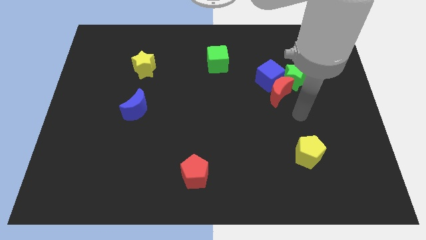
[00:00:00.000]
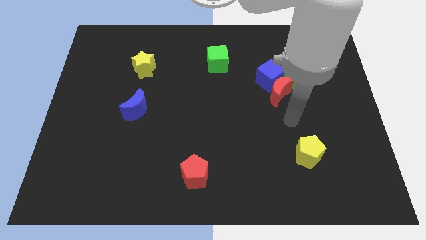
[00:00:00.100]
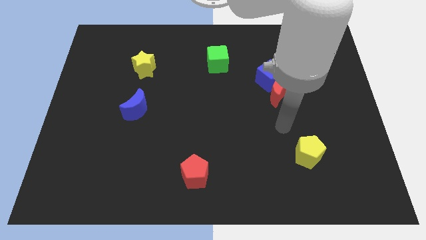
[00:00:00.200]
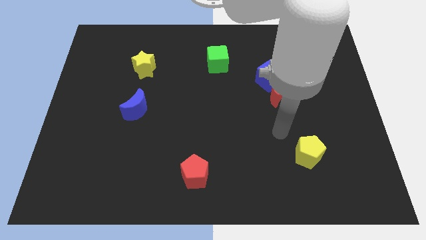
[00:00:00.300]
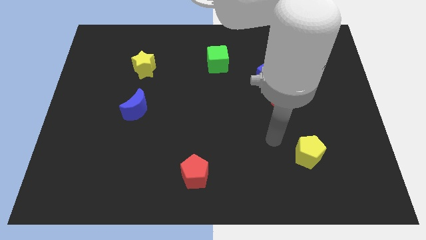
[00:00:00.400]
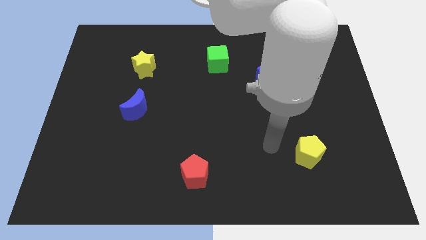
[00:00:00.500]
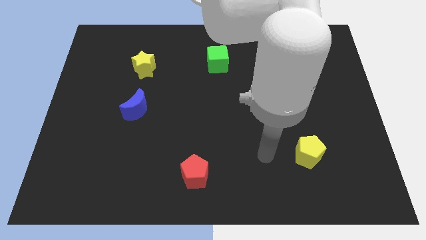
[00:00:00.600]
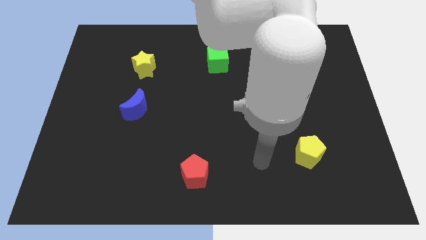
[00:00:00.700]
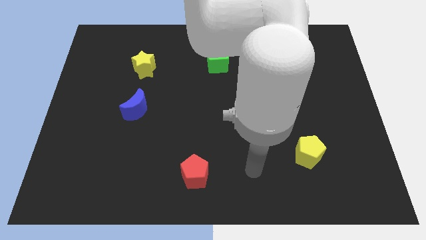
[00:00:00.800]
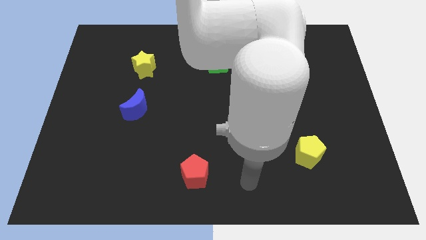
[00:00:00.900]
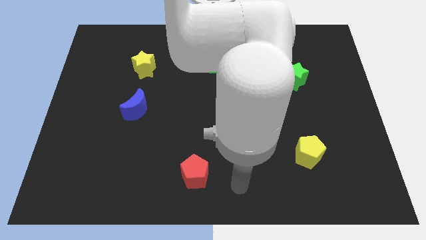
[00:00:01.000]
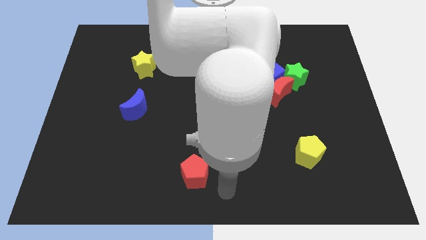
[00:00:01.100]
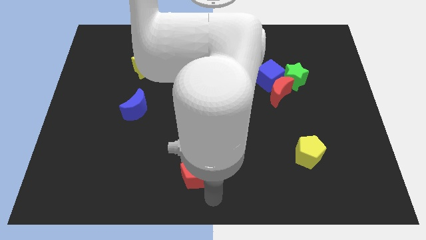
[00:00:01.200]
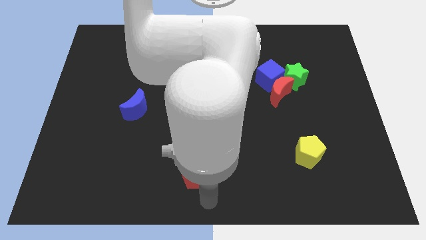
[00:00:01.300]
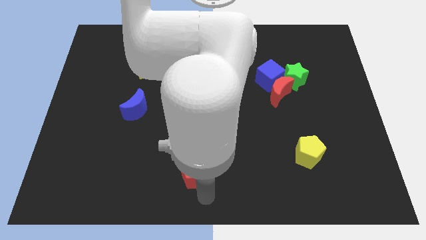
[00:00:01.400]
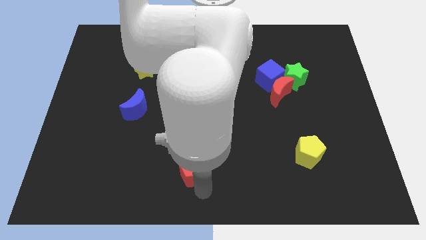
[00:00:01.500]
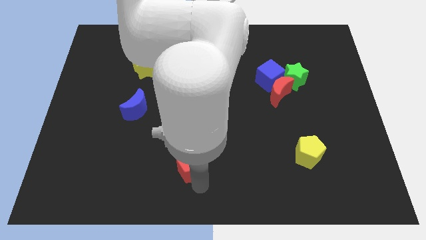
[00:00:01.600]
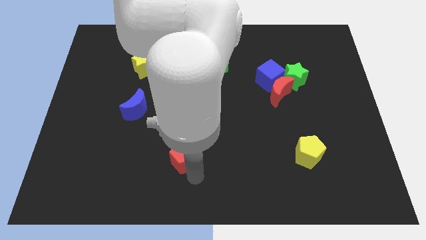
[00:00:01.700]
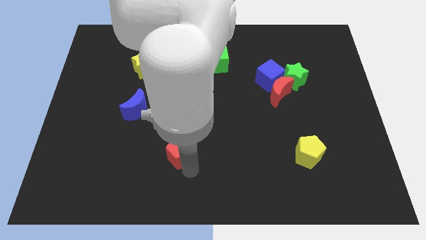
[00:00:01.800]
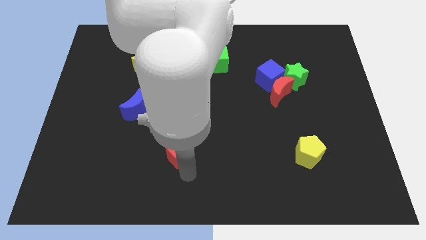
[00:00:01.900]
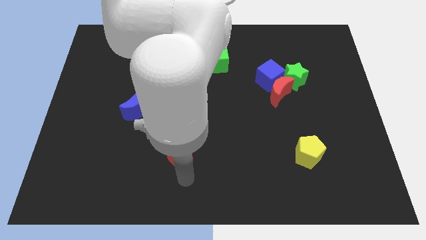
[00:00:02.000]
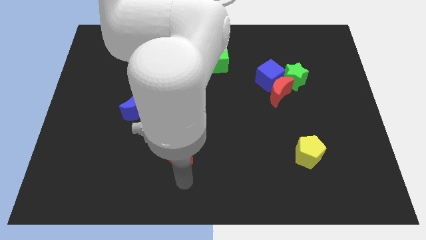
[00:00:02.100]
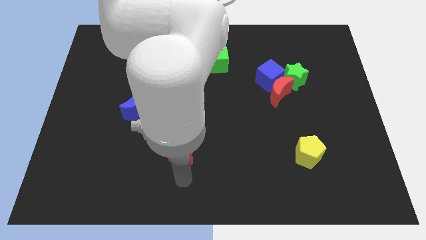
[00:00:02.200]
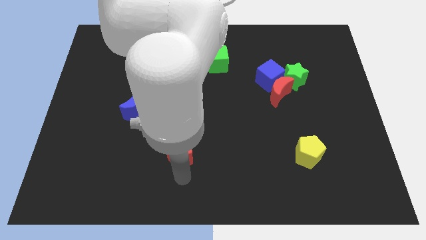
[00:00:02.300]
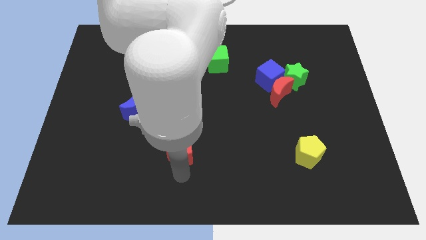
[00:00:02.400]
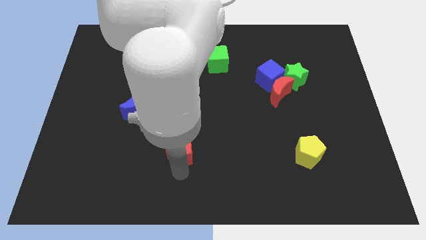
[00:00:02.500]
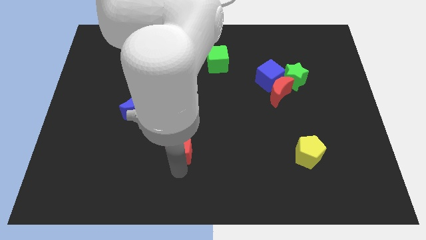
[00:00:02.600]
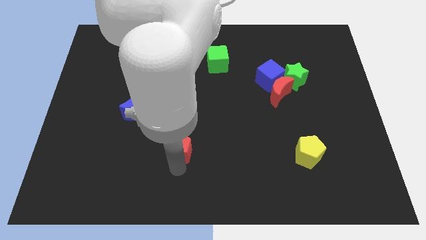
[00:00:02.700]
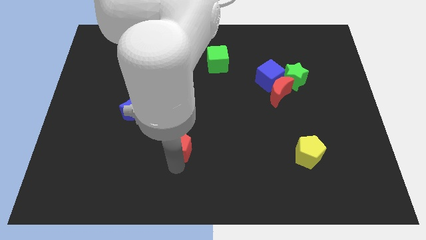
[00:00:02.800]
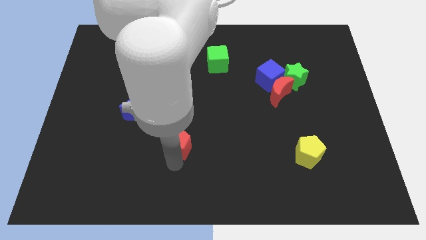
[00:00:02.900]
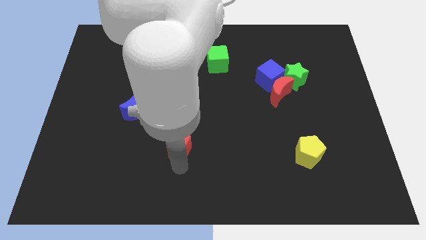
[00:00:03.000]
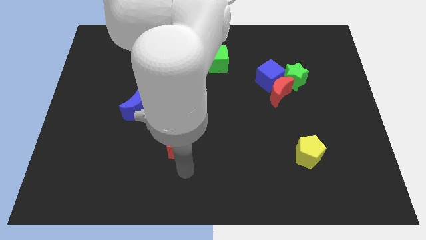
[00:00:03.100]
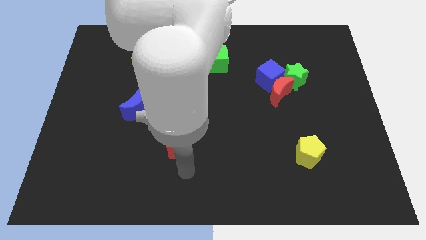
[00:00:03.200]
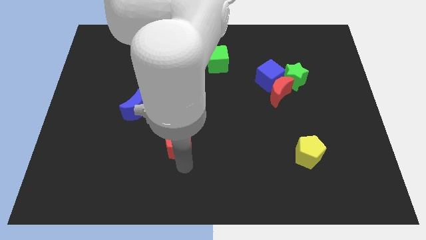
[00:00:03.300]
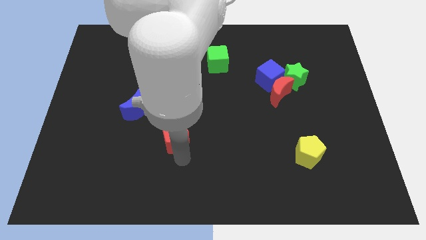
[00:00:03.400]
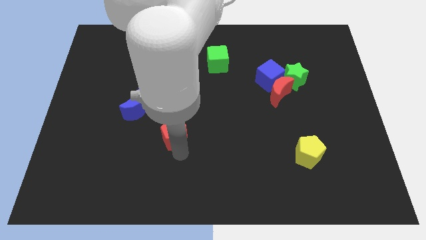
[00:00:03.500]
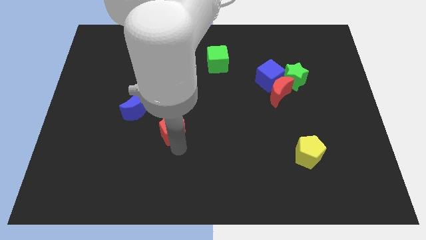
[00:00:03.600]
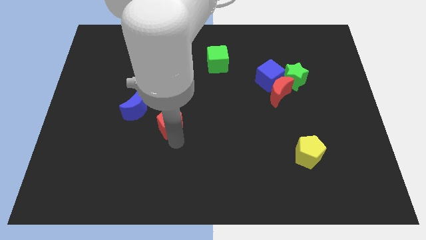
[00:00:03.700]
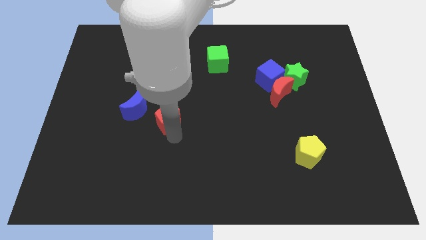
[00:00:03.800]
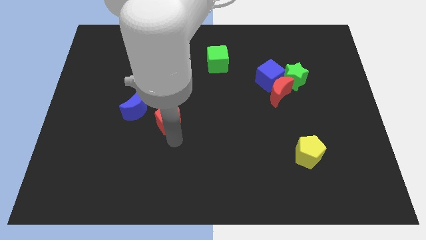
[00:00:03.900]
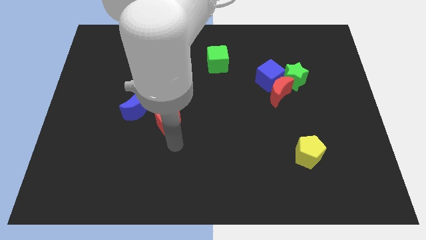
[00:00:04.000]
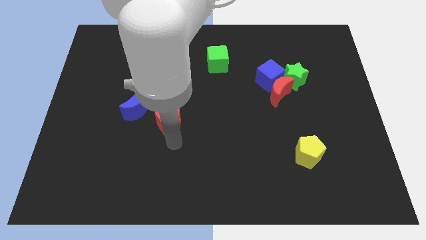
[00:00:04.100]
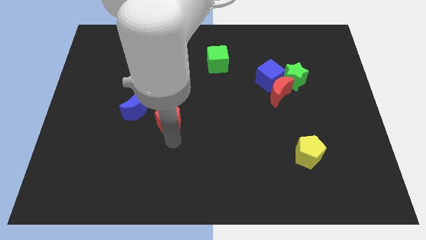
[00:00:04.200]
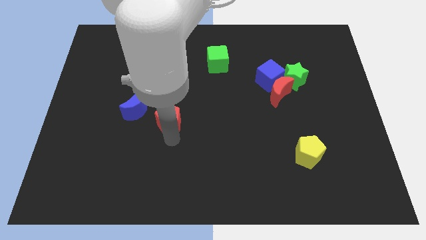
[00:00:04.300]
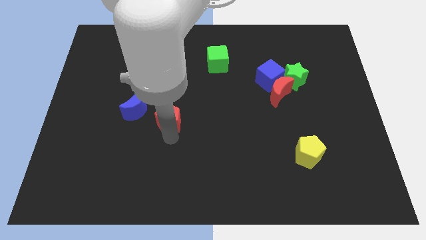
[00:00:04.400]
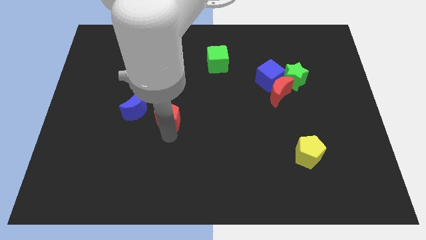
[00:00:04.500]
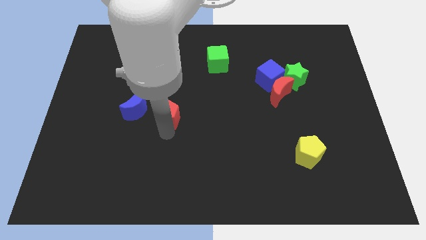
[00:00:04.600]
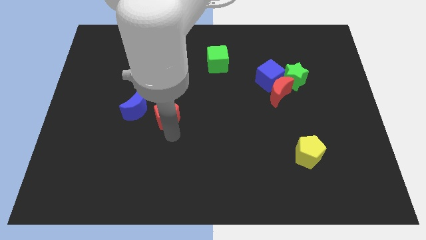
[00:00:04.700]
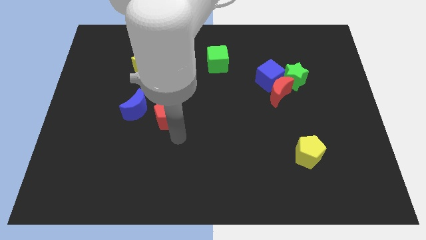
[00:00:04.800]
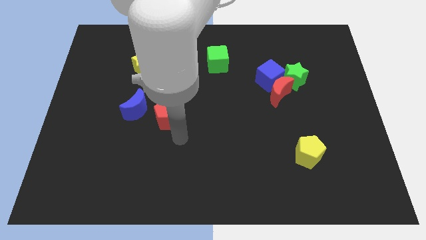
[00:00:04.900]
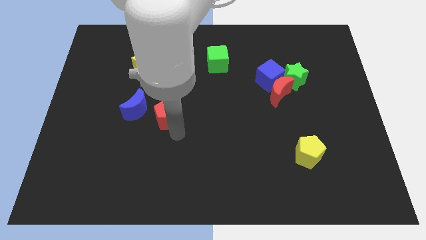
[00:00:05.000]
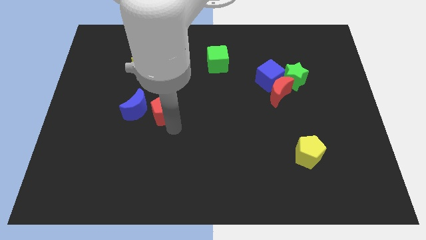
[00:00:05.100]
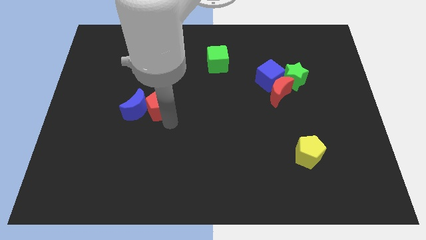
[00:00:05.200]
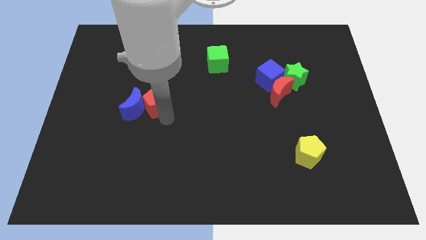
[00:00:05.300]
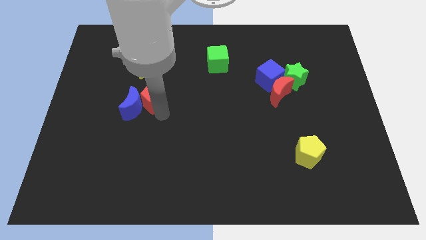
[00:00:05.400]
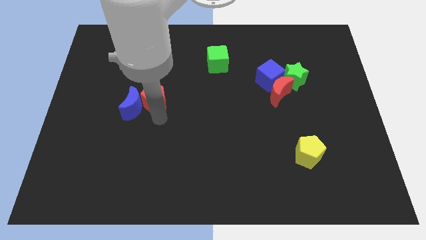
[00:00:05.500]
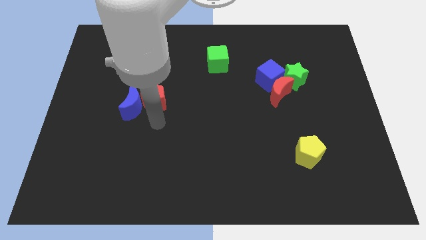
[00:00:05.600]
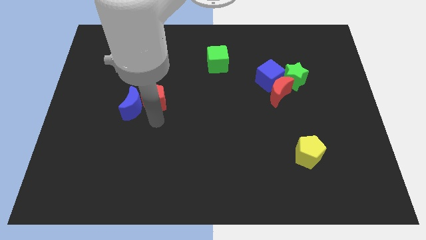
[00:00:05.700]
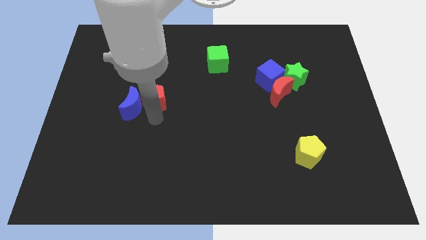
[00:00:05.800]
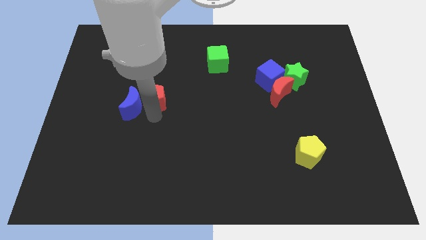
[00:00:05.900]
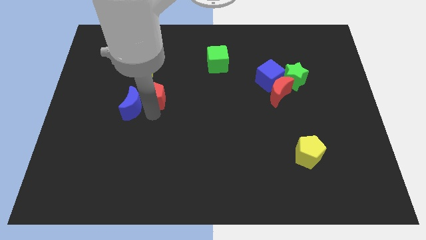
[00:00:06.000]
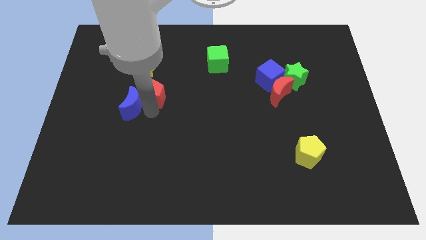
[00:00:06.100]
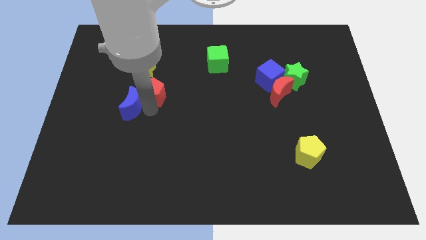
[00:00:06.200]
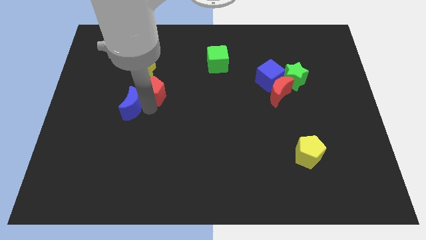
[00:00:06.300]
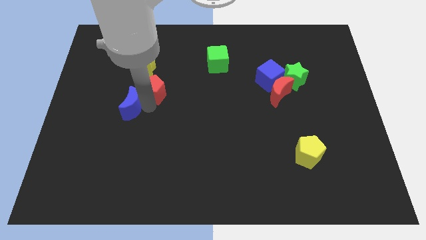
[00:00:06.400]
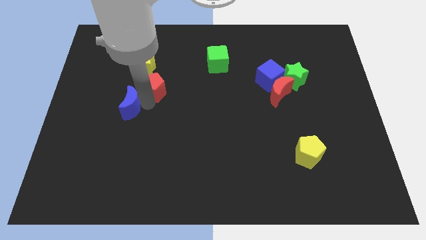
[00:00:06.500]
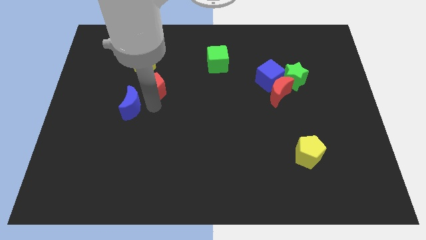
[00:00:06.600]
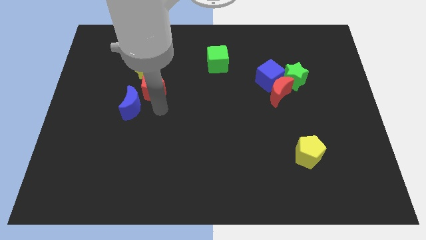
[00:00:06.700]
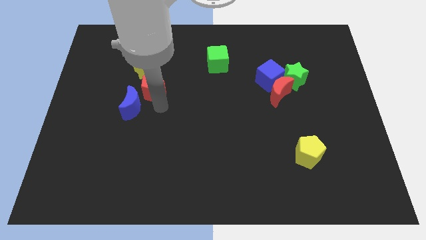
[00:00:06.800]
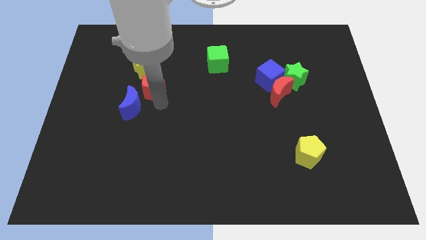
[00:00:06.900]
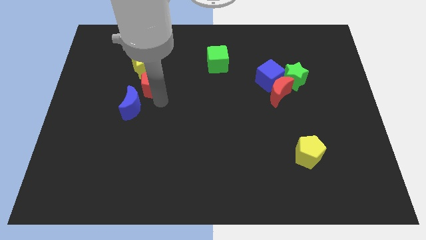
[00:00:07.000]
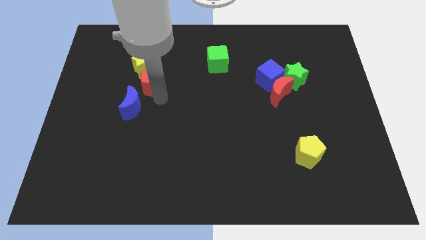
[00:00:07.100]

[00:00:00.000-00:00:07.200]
put the red pentagon towards the yellow star

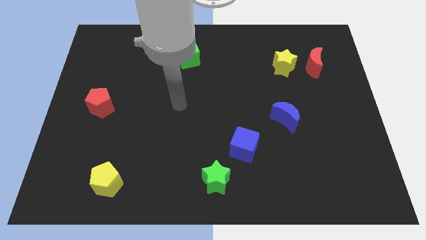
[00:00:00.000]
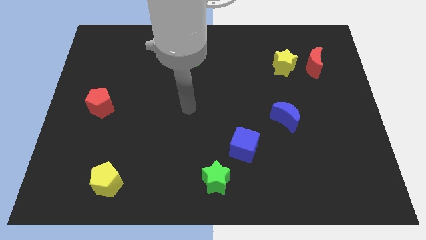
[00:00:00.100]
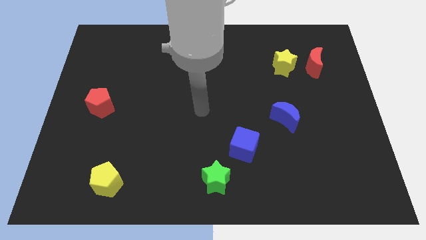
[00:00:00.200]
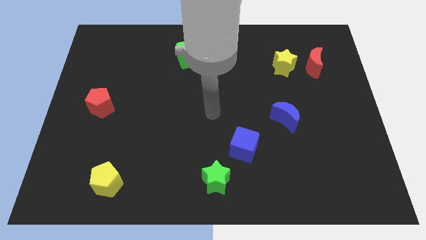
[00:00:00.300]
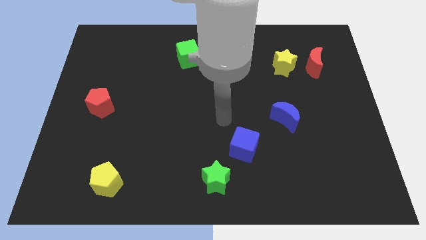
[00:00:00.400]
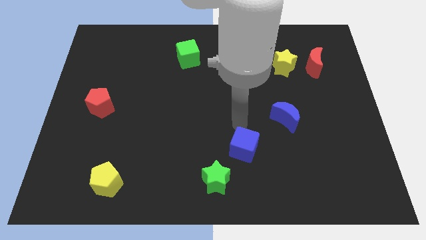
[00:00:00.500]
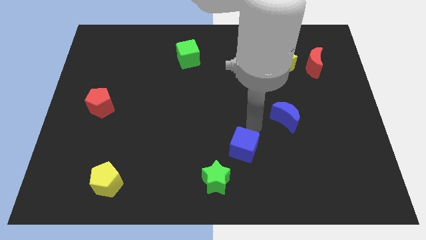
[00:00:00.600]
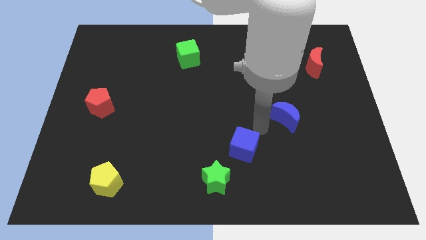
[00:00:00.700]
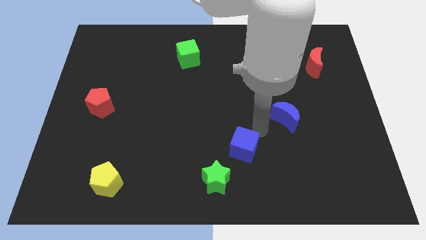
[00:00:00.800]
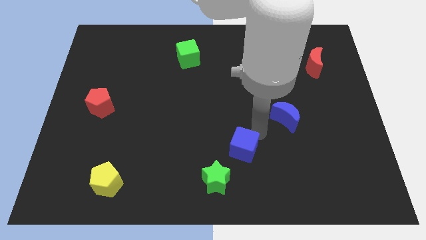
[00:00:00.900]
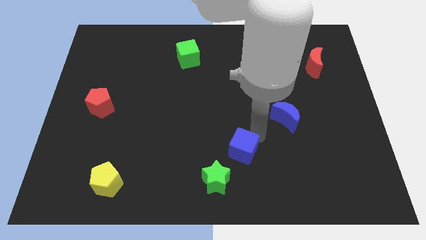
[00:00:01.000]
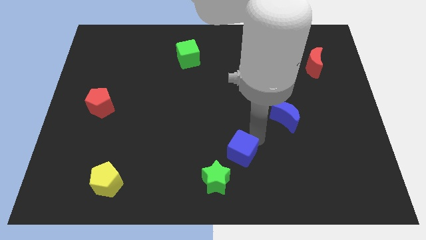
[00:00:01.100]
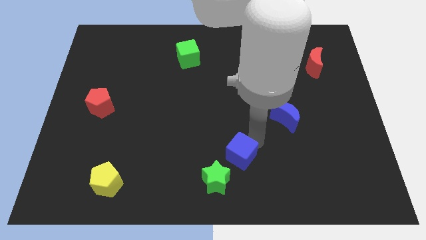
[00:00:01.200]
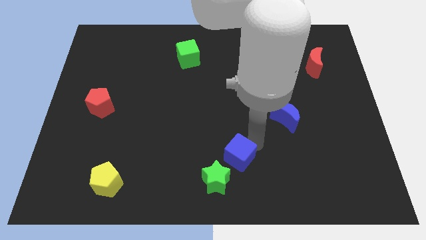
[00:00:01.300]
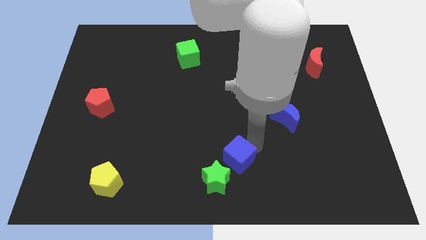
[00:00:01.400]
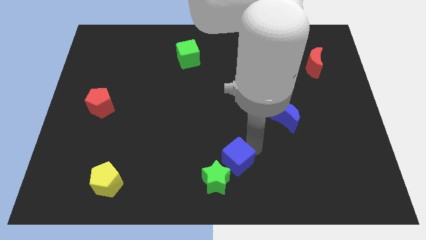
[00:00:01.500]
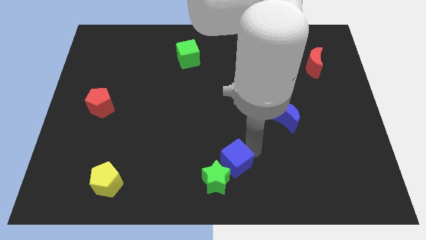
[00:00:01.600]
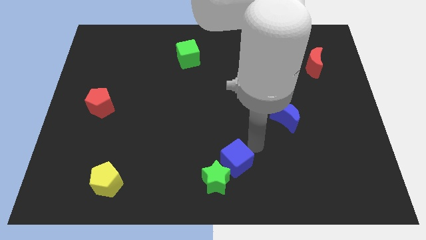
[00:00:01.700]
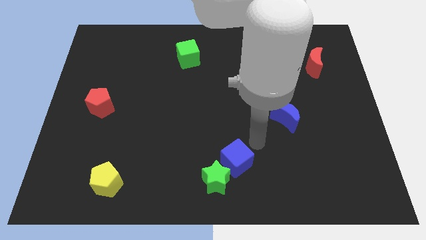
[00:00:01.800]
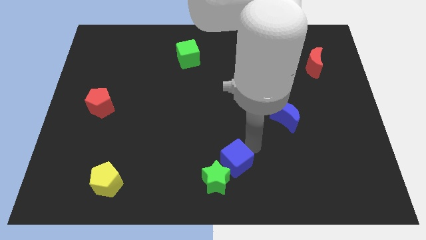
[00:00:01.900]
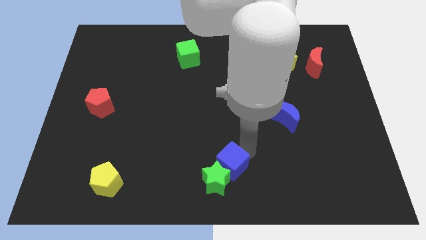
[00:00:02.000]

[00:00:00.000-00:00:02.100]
put the blue cube close to the green star
